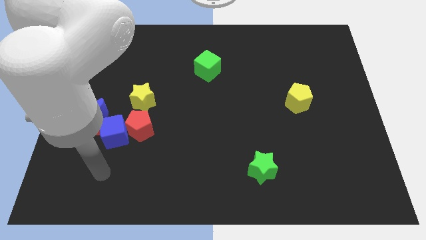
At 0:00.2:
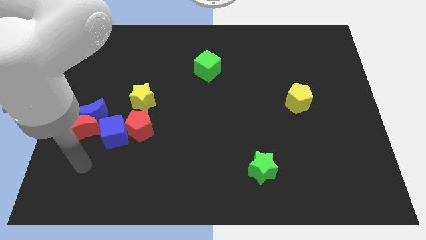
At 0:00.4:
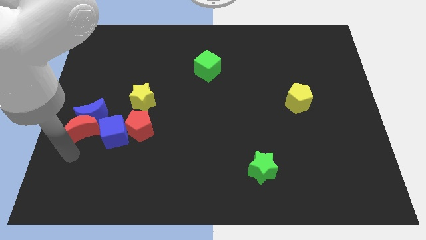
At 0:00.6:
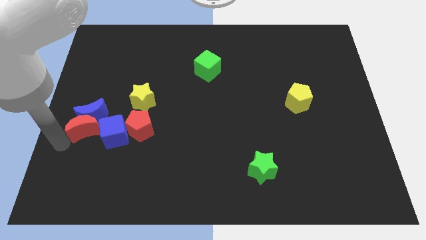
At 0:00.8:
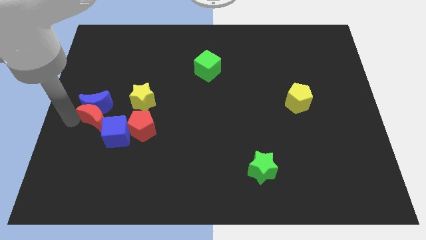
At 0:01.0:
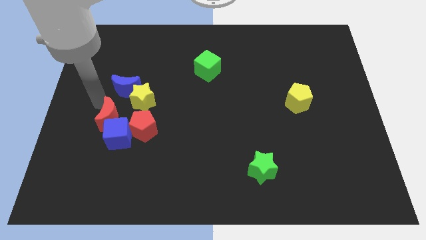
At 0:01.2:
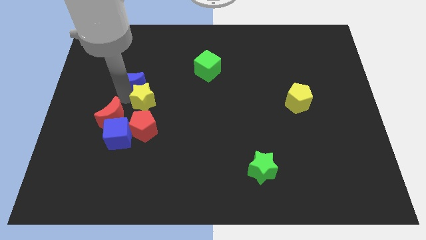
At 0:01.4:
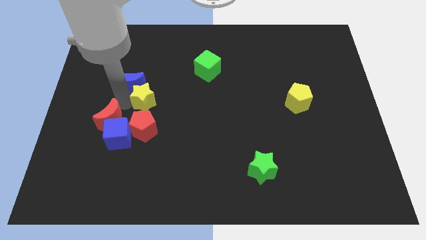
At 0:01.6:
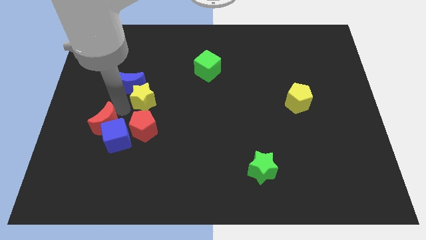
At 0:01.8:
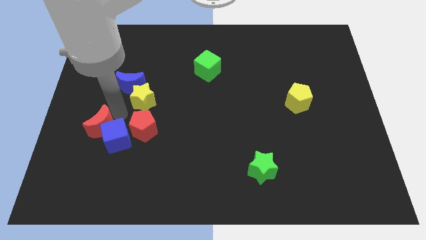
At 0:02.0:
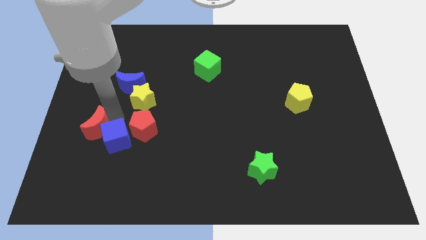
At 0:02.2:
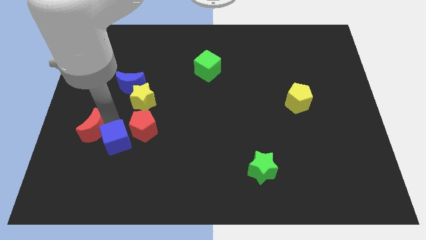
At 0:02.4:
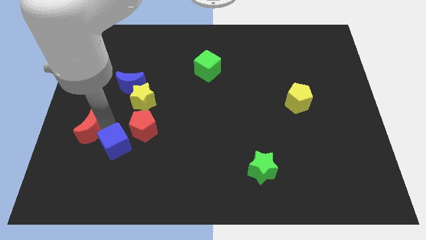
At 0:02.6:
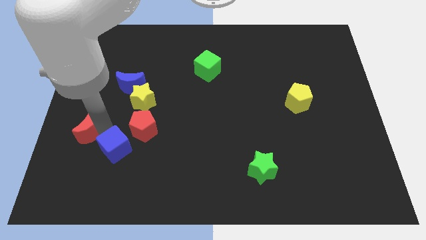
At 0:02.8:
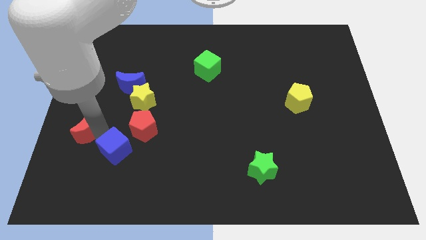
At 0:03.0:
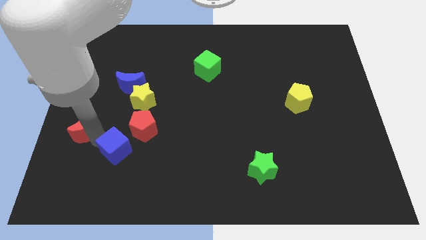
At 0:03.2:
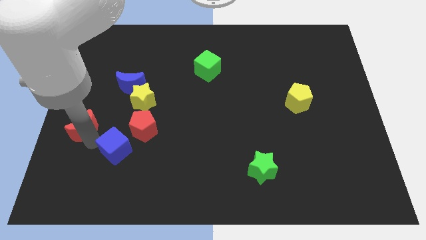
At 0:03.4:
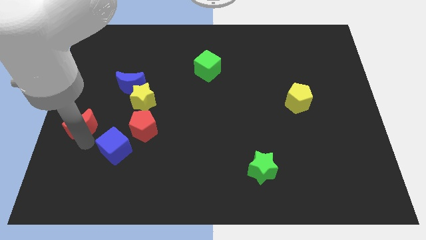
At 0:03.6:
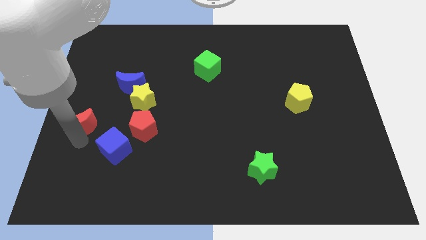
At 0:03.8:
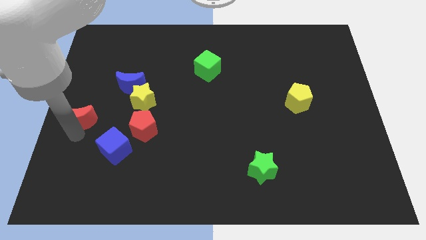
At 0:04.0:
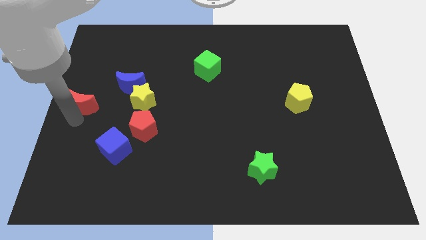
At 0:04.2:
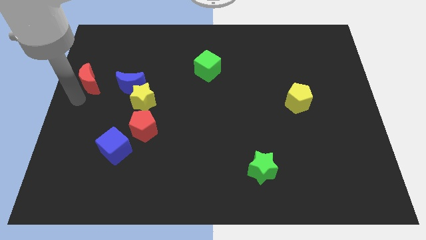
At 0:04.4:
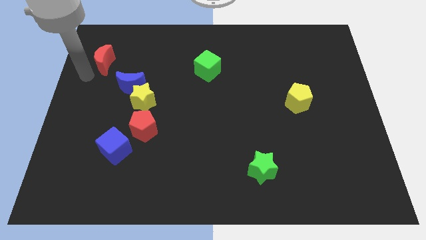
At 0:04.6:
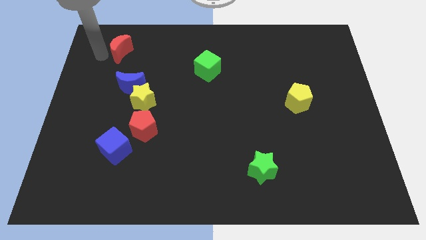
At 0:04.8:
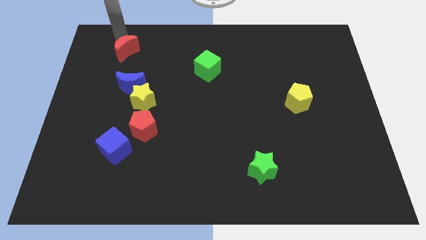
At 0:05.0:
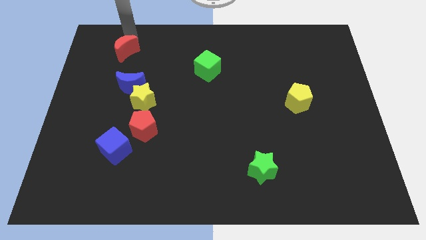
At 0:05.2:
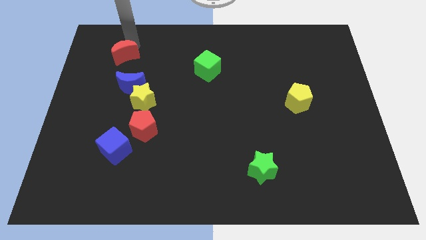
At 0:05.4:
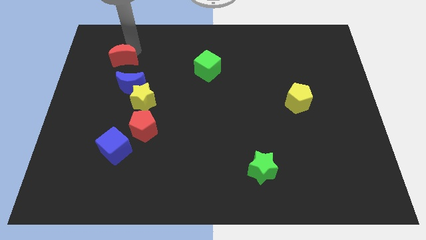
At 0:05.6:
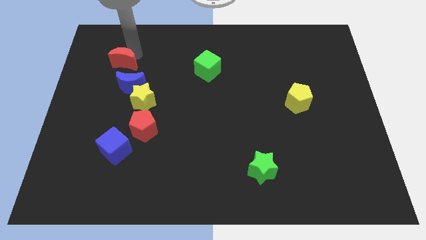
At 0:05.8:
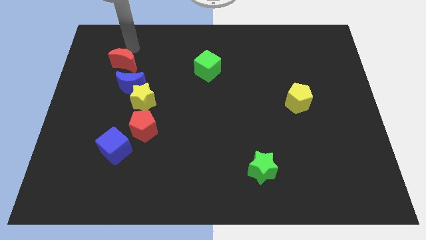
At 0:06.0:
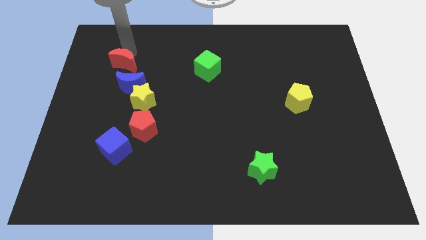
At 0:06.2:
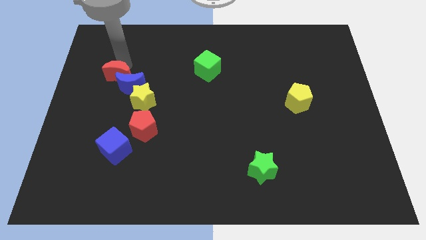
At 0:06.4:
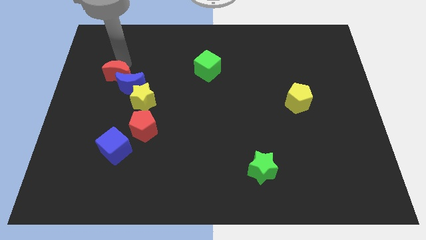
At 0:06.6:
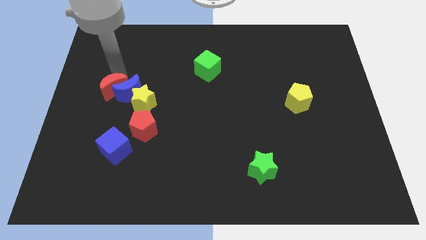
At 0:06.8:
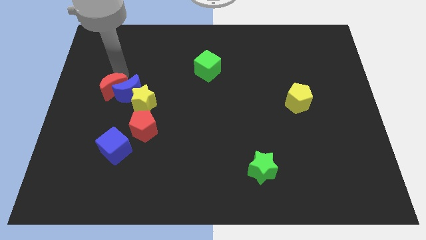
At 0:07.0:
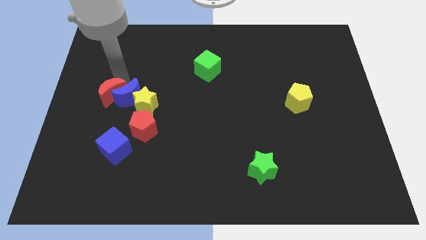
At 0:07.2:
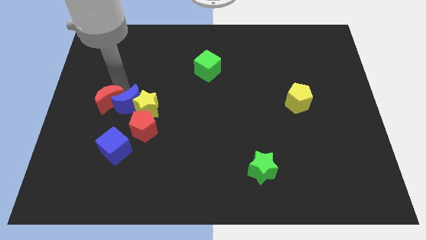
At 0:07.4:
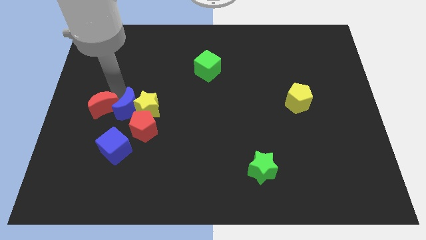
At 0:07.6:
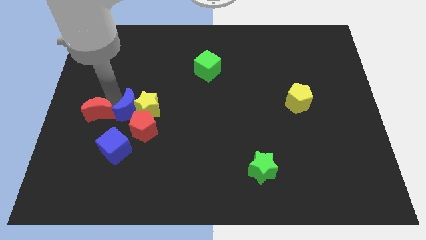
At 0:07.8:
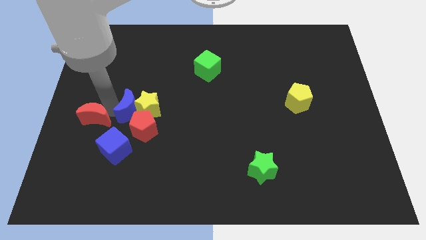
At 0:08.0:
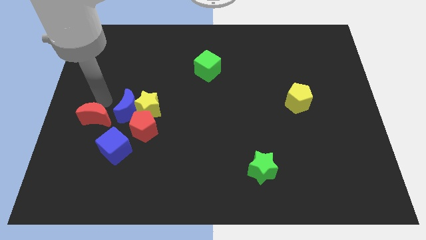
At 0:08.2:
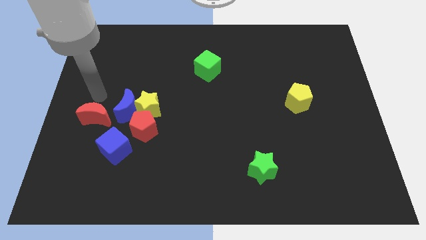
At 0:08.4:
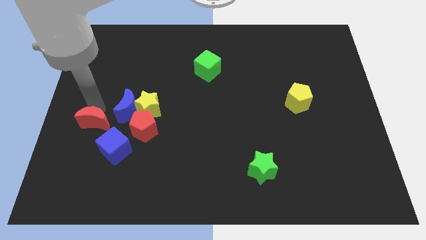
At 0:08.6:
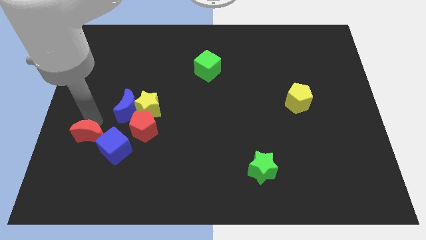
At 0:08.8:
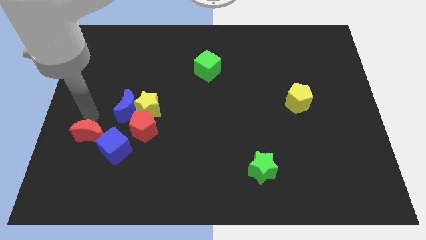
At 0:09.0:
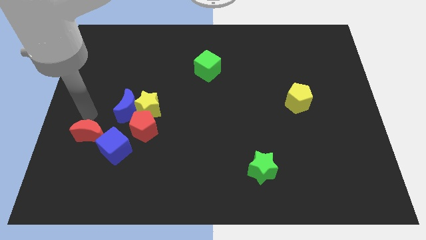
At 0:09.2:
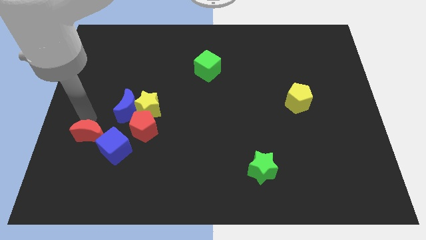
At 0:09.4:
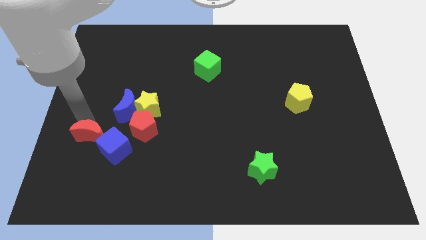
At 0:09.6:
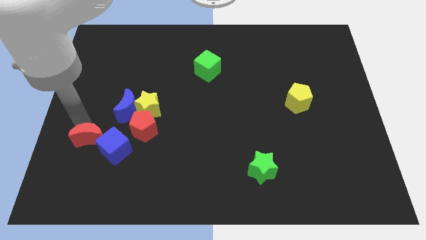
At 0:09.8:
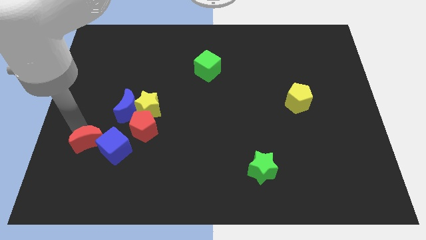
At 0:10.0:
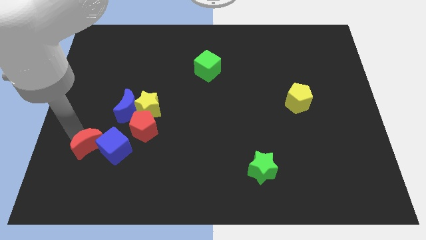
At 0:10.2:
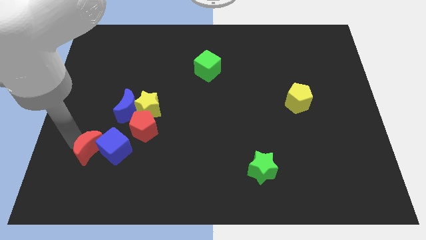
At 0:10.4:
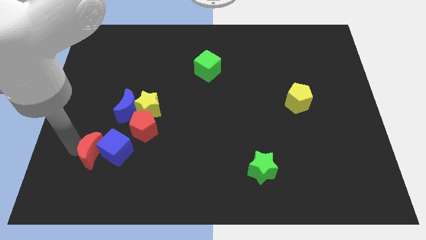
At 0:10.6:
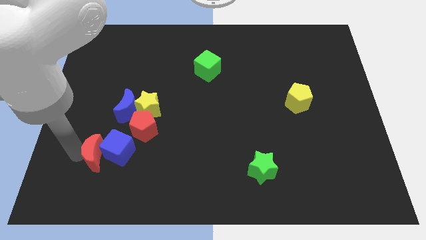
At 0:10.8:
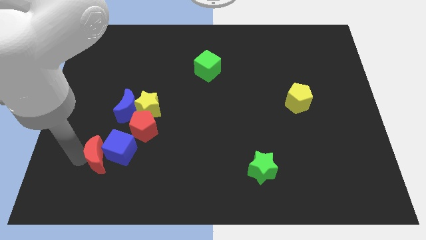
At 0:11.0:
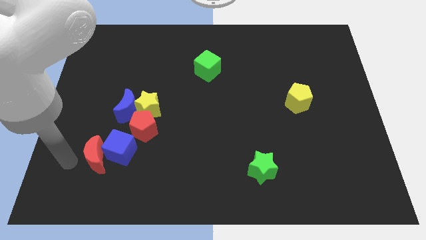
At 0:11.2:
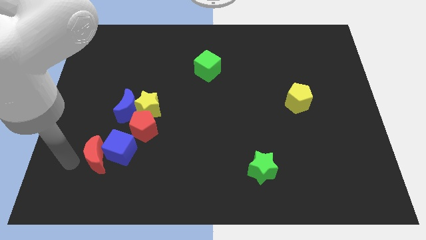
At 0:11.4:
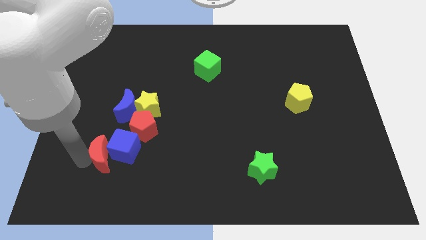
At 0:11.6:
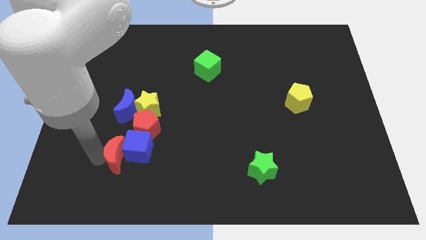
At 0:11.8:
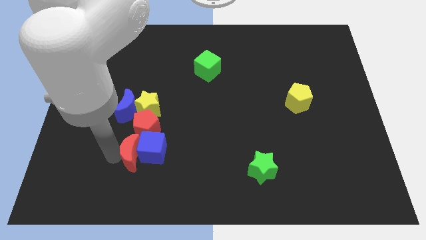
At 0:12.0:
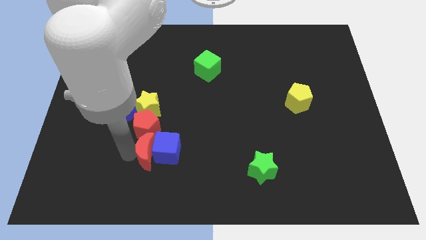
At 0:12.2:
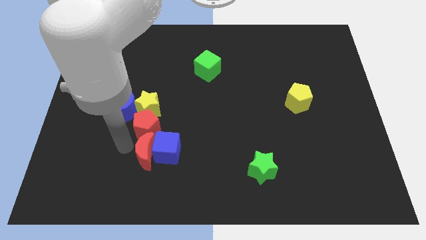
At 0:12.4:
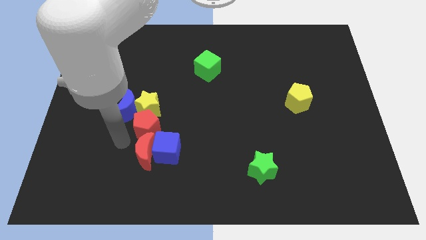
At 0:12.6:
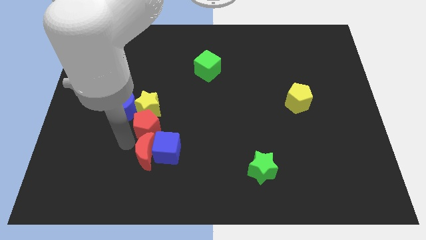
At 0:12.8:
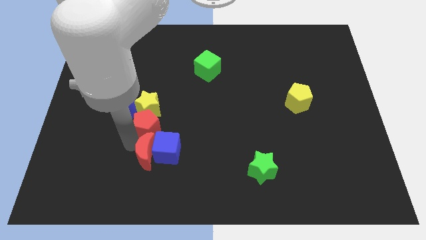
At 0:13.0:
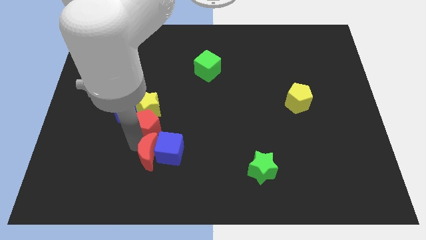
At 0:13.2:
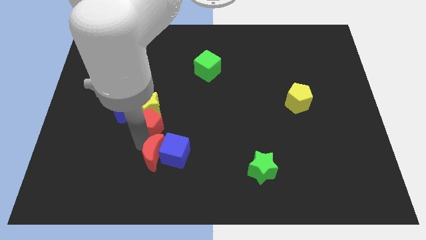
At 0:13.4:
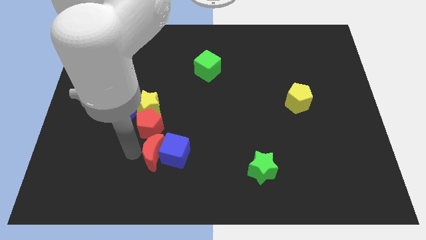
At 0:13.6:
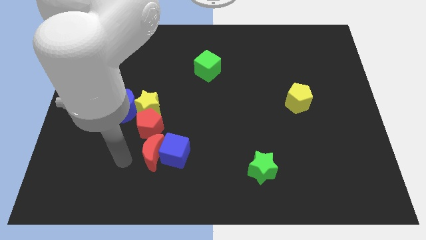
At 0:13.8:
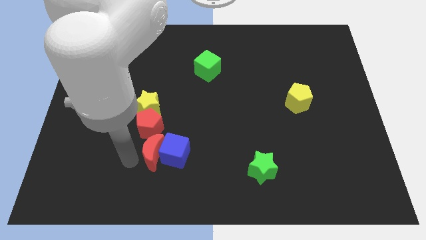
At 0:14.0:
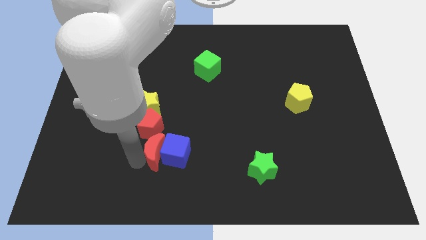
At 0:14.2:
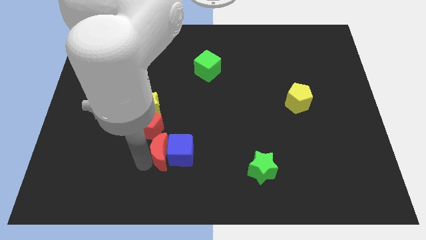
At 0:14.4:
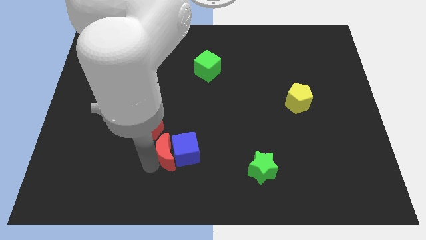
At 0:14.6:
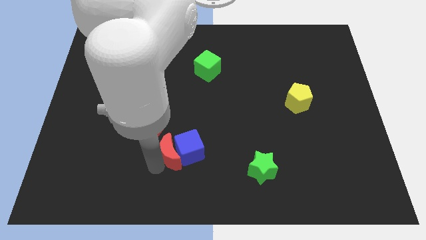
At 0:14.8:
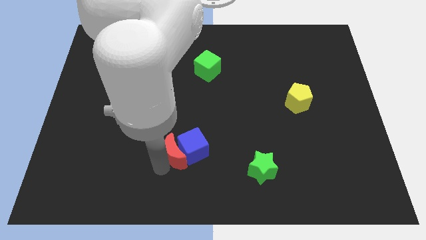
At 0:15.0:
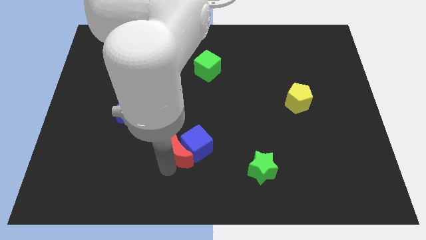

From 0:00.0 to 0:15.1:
move the red moon to the right
